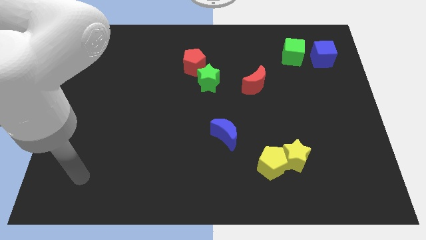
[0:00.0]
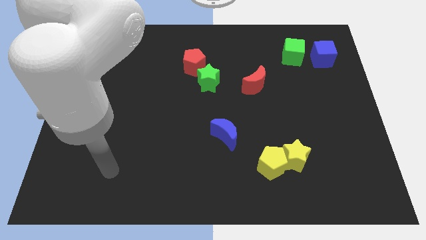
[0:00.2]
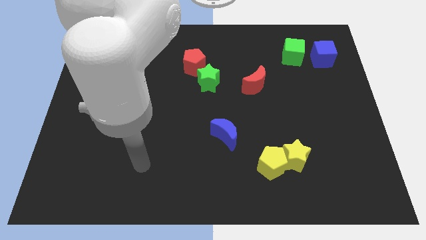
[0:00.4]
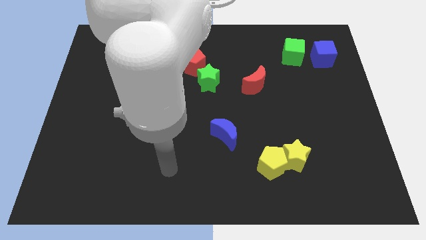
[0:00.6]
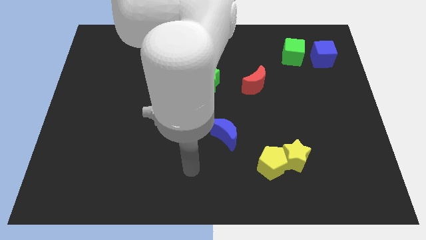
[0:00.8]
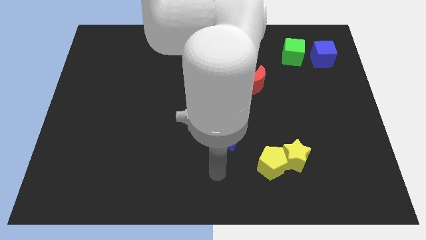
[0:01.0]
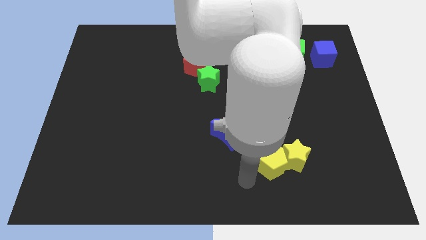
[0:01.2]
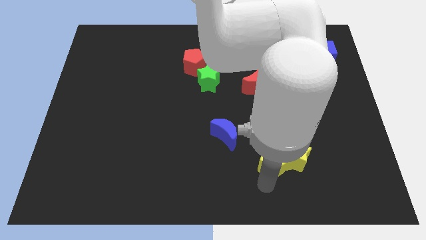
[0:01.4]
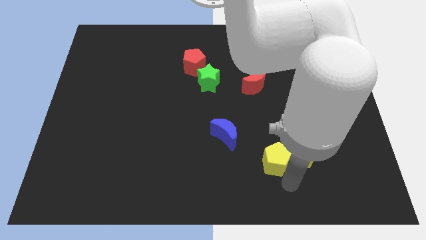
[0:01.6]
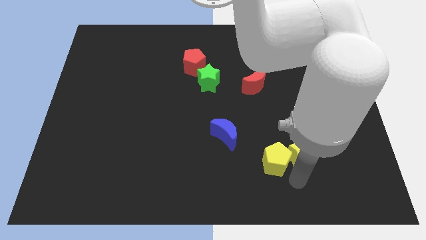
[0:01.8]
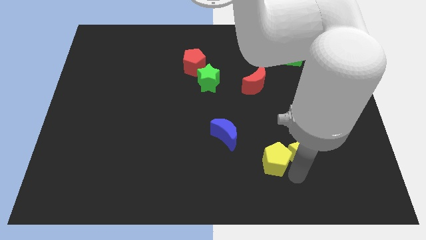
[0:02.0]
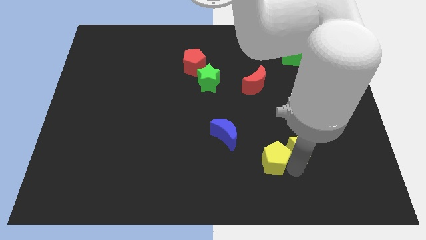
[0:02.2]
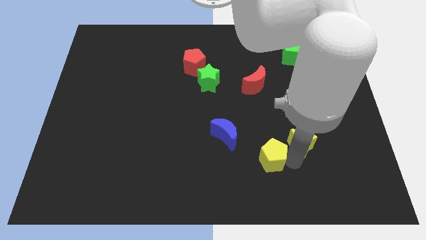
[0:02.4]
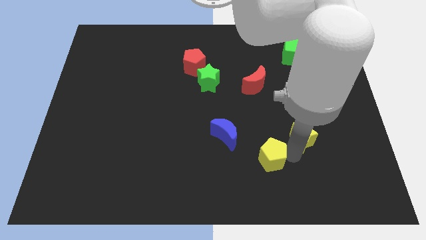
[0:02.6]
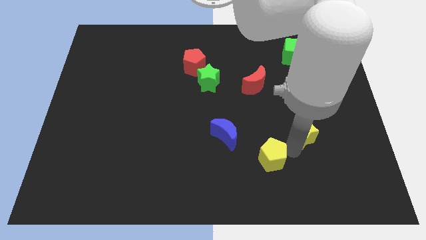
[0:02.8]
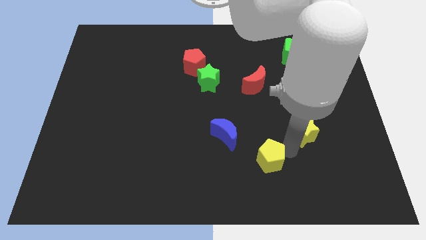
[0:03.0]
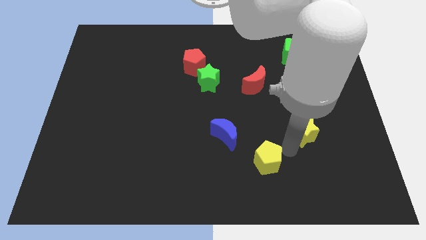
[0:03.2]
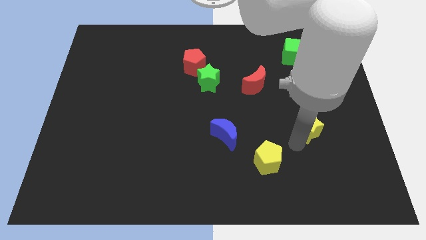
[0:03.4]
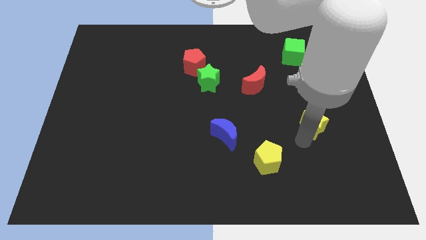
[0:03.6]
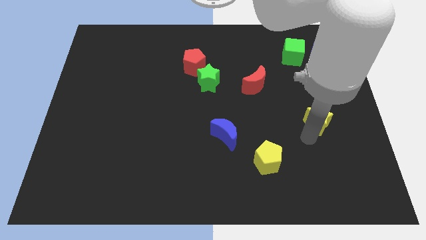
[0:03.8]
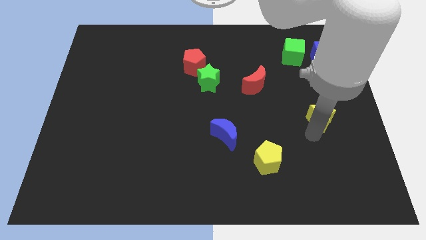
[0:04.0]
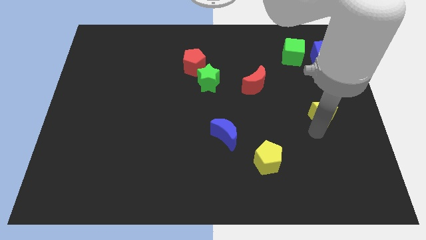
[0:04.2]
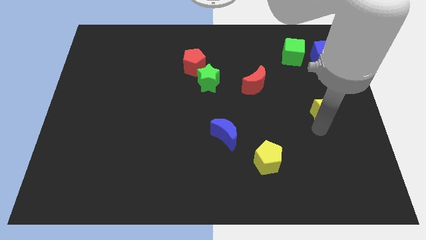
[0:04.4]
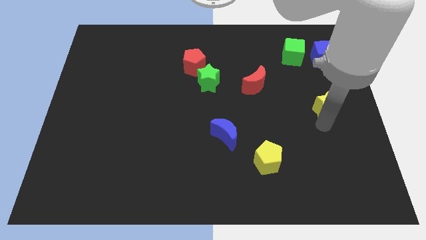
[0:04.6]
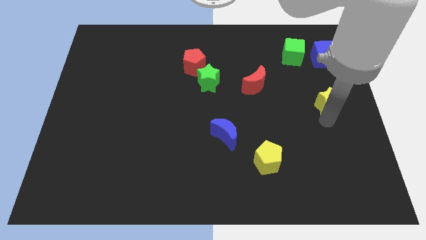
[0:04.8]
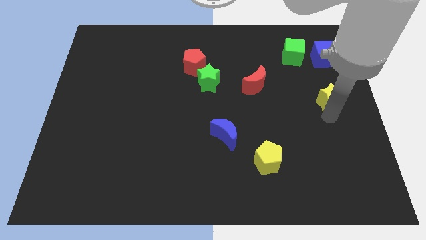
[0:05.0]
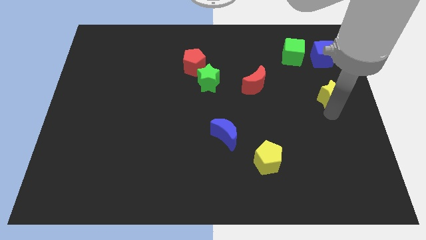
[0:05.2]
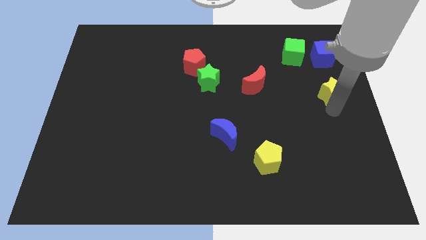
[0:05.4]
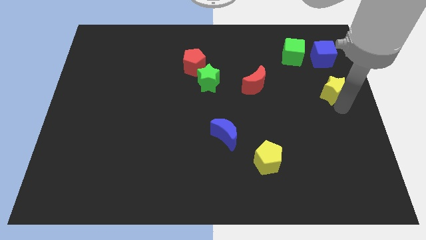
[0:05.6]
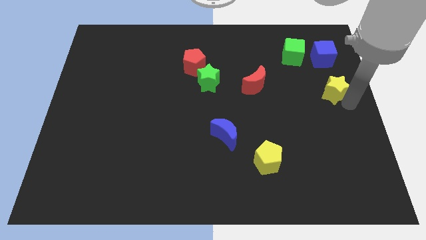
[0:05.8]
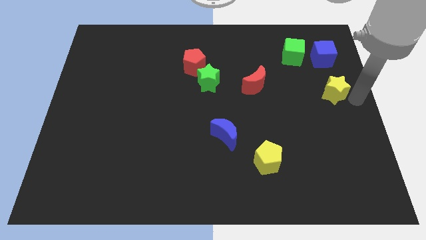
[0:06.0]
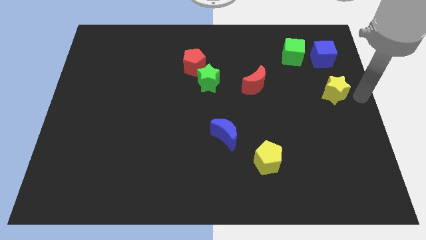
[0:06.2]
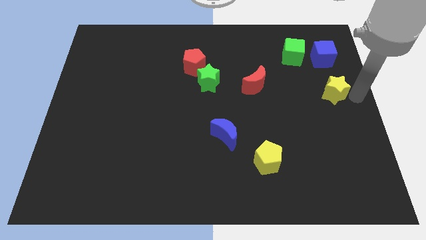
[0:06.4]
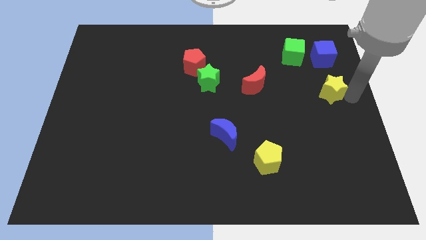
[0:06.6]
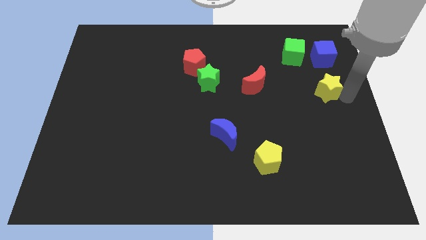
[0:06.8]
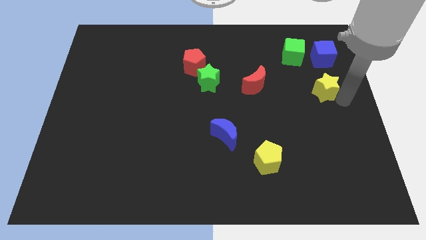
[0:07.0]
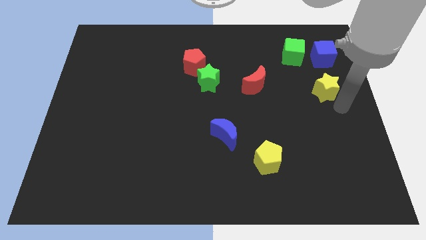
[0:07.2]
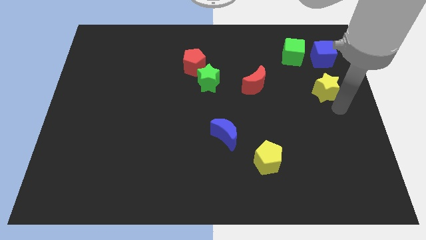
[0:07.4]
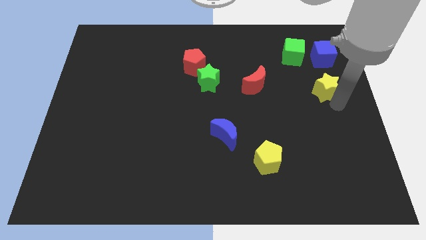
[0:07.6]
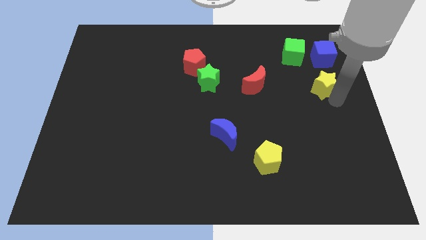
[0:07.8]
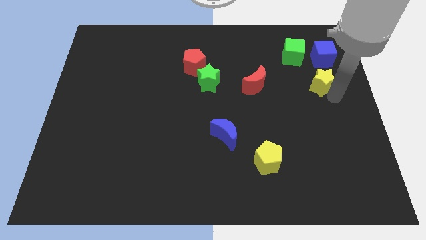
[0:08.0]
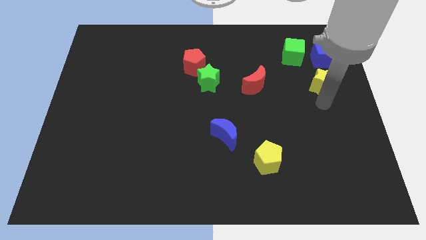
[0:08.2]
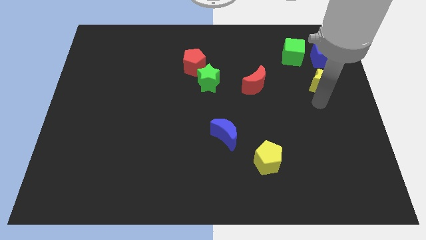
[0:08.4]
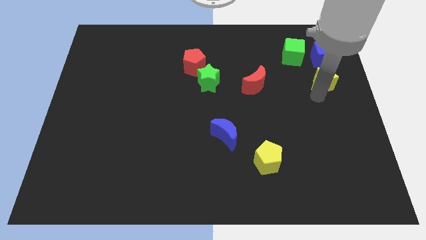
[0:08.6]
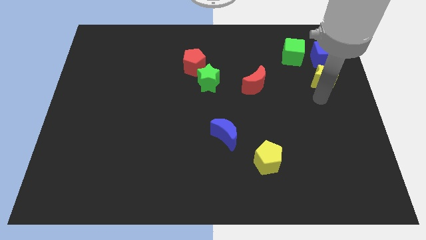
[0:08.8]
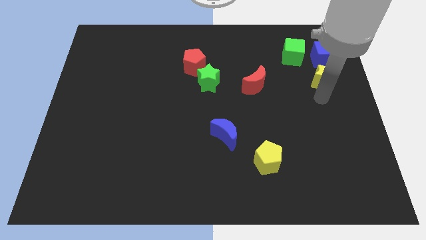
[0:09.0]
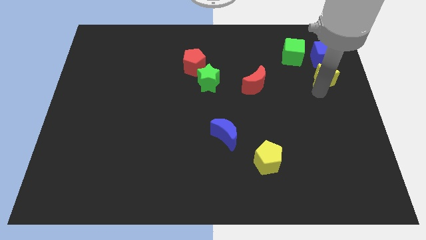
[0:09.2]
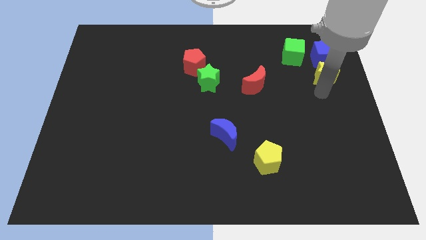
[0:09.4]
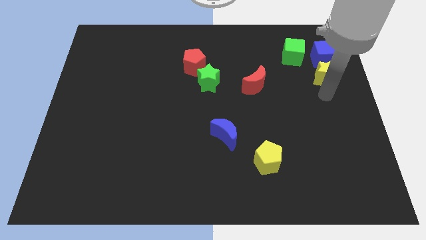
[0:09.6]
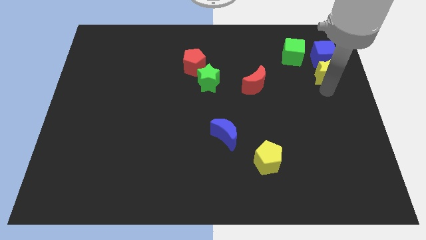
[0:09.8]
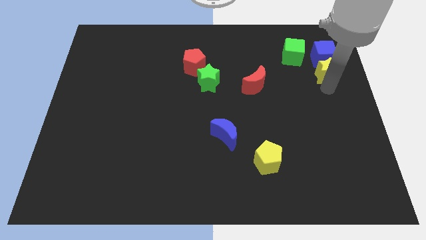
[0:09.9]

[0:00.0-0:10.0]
push the yellow star close to the blue cube

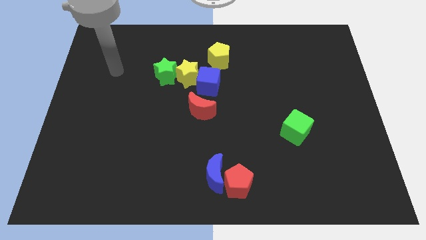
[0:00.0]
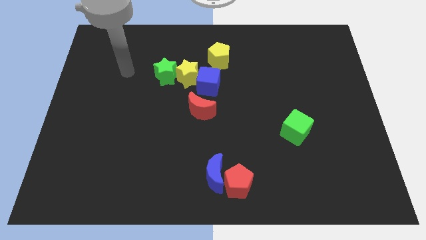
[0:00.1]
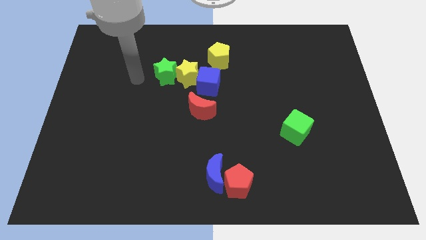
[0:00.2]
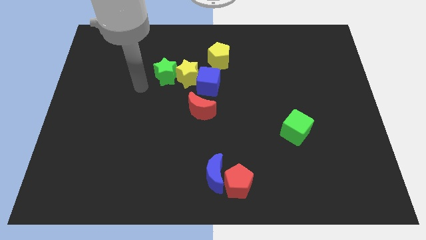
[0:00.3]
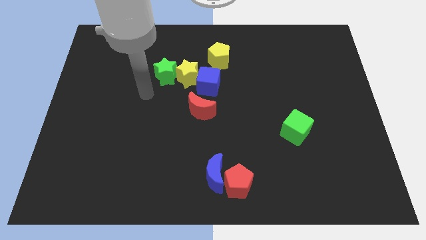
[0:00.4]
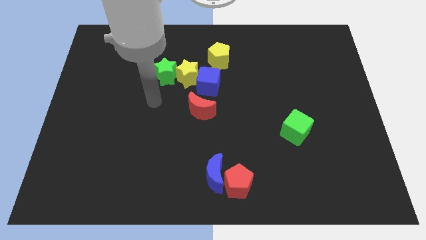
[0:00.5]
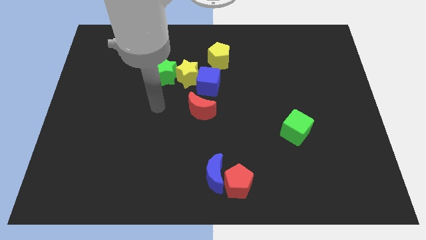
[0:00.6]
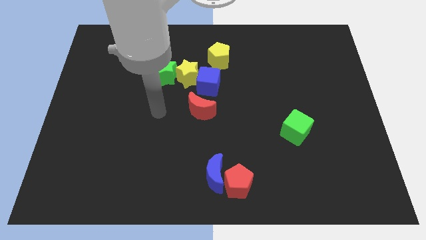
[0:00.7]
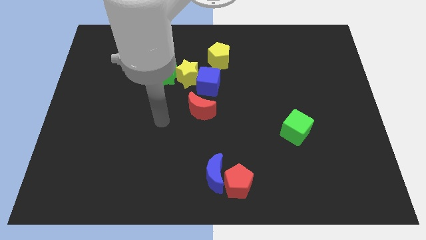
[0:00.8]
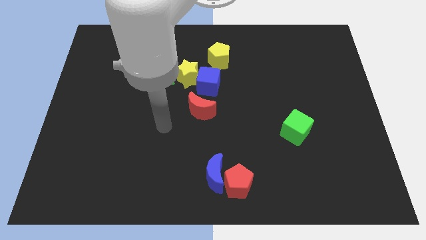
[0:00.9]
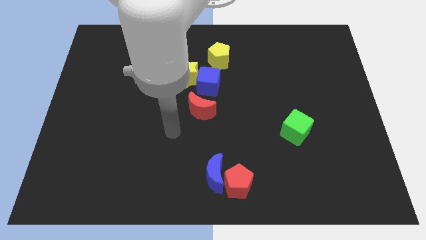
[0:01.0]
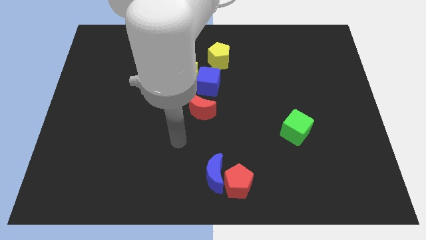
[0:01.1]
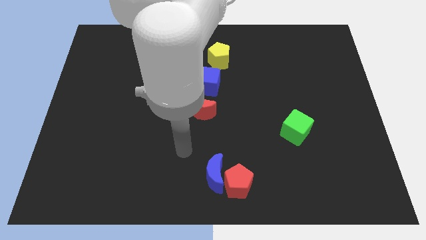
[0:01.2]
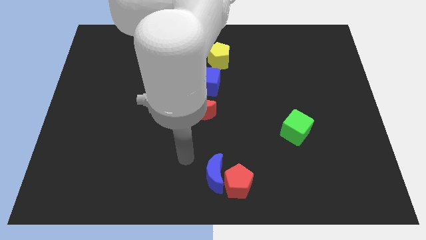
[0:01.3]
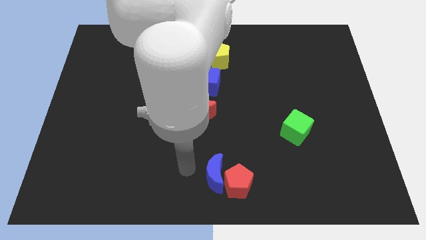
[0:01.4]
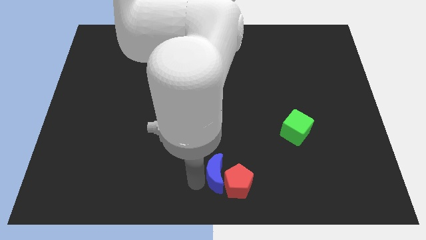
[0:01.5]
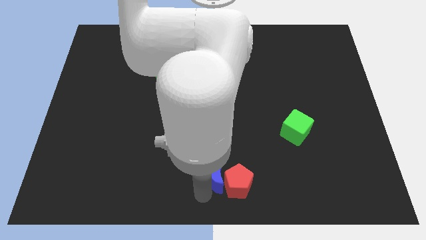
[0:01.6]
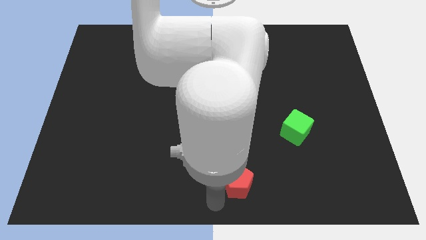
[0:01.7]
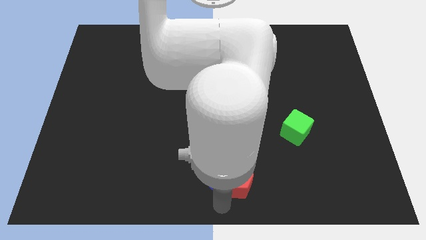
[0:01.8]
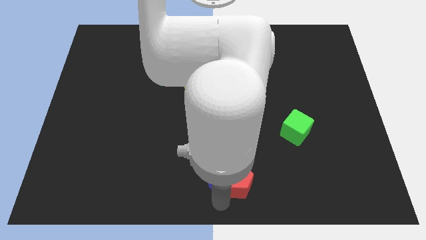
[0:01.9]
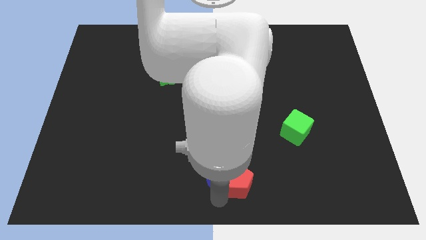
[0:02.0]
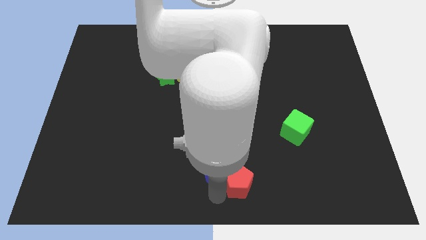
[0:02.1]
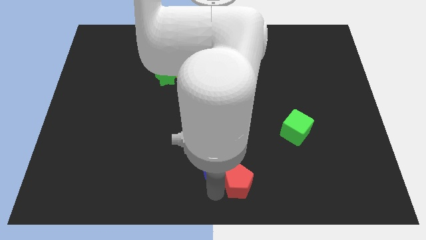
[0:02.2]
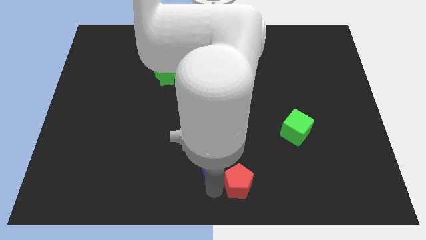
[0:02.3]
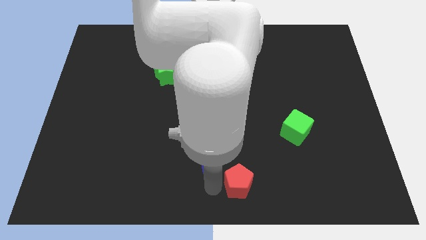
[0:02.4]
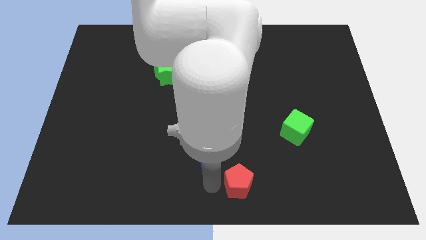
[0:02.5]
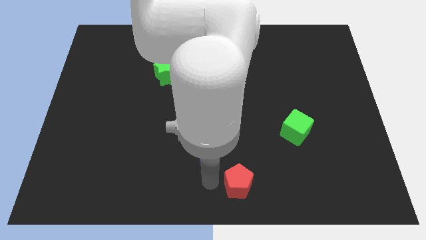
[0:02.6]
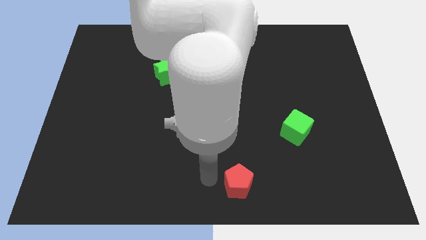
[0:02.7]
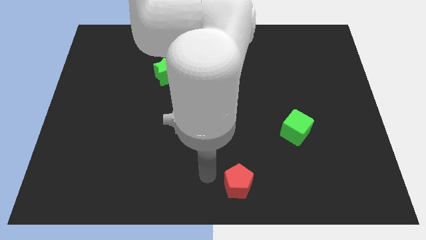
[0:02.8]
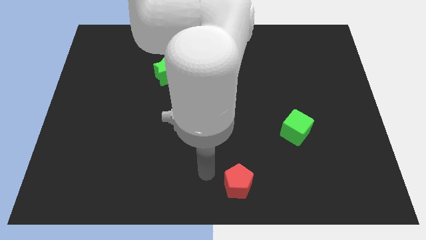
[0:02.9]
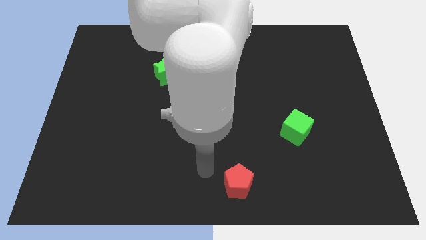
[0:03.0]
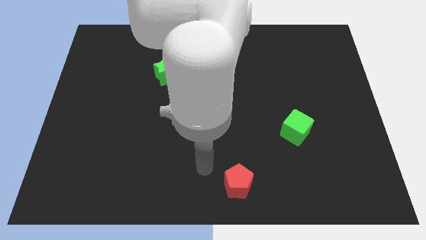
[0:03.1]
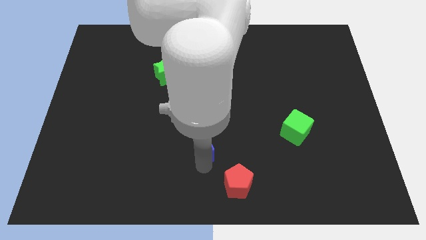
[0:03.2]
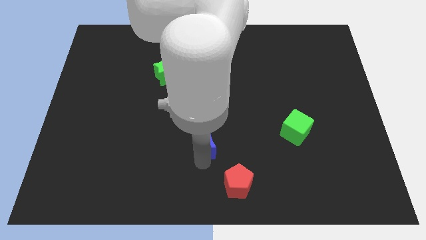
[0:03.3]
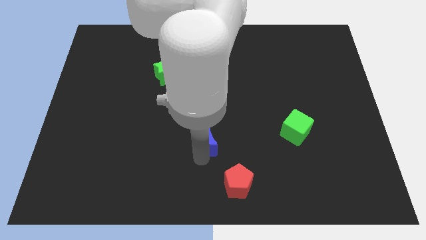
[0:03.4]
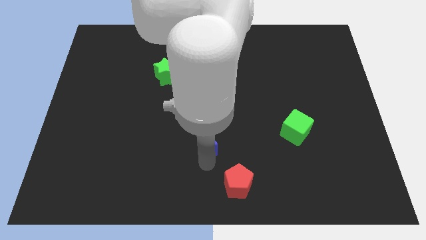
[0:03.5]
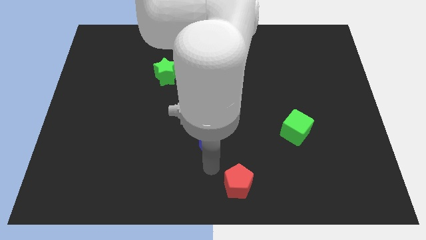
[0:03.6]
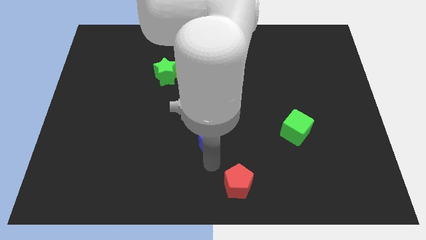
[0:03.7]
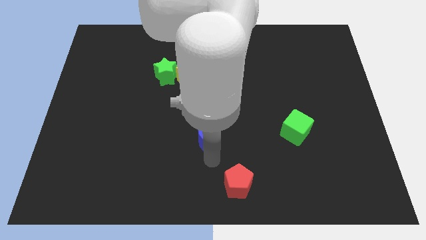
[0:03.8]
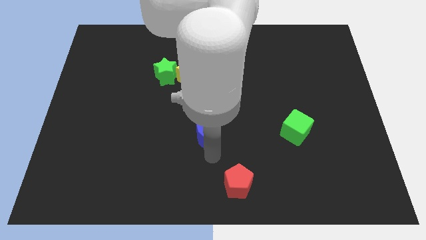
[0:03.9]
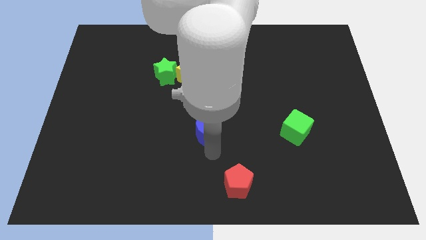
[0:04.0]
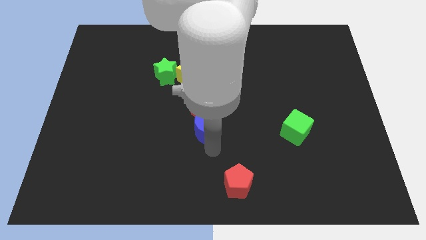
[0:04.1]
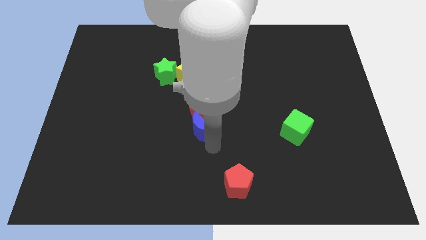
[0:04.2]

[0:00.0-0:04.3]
put the blue moon to the red moon
